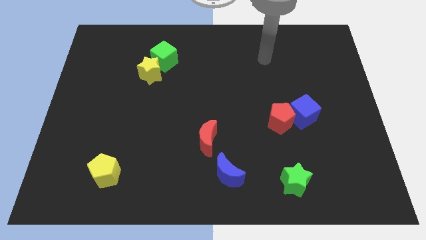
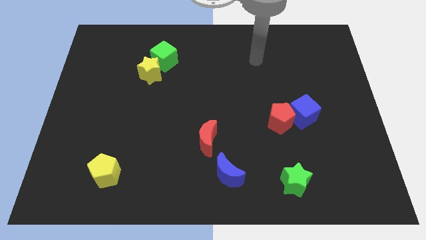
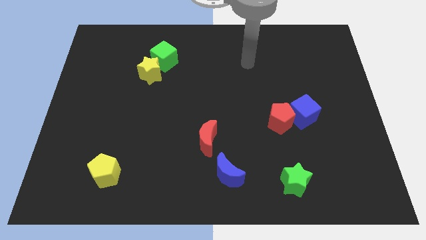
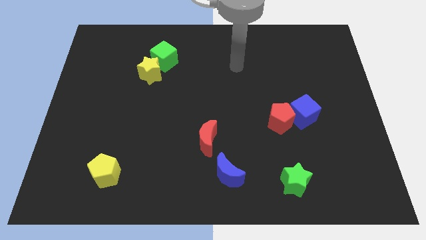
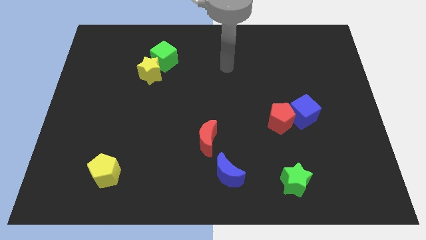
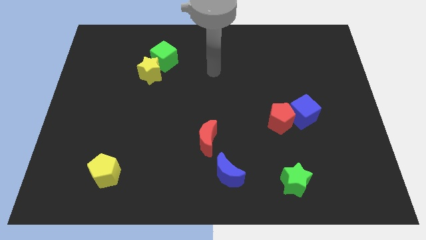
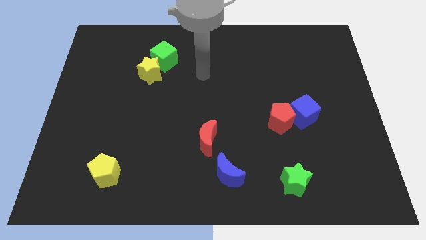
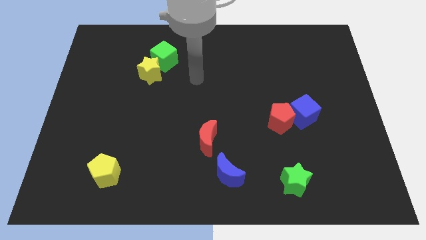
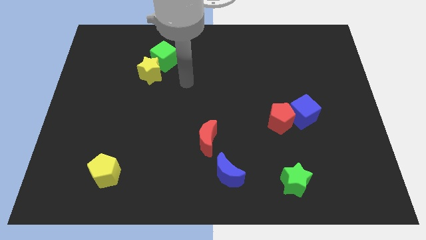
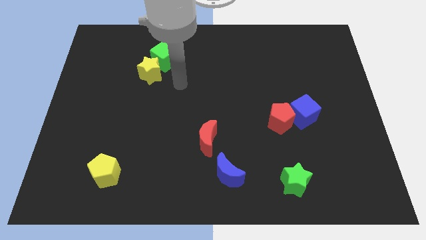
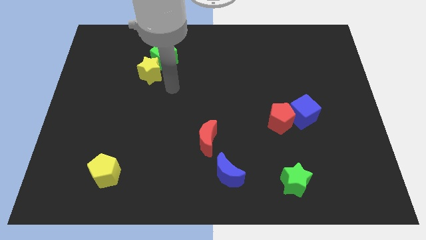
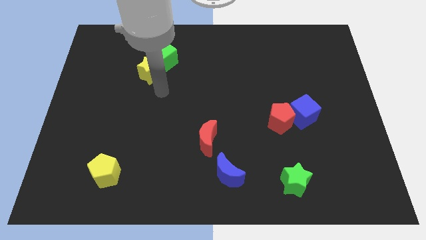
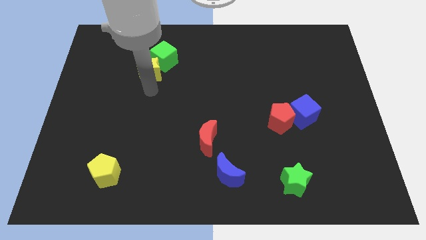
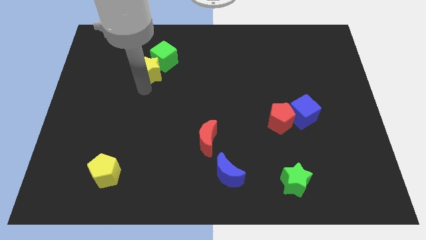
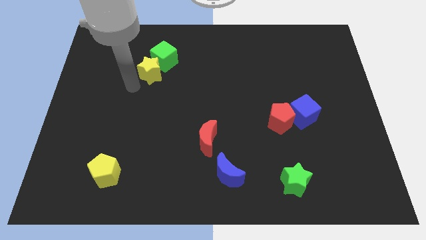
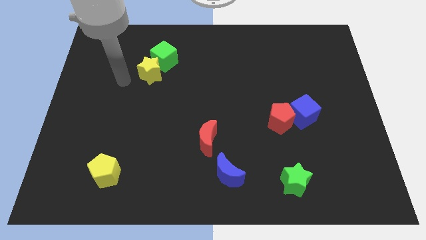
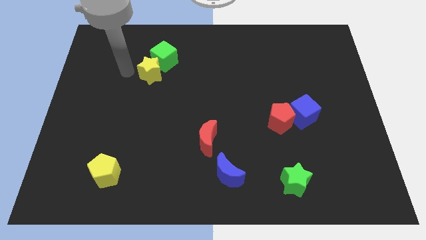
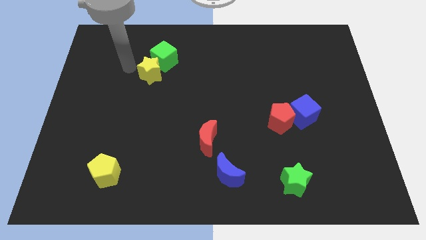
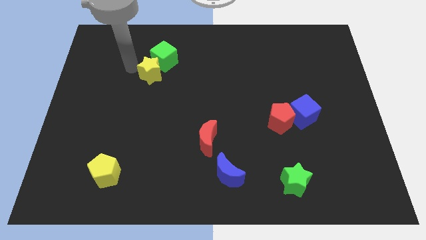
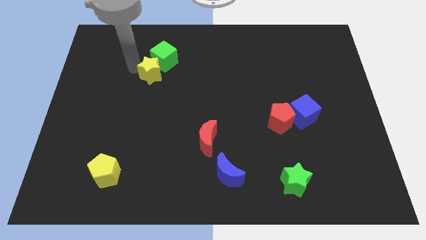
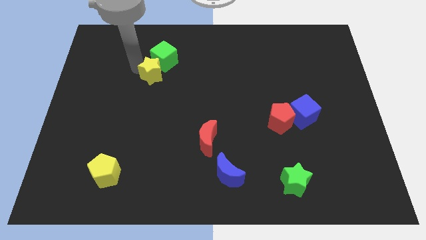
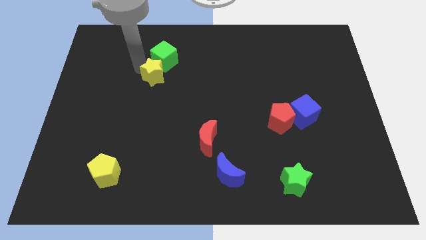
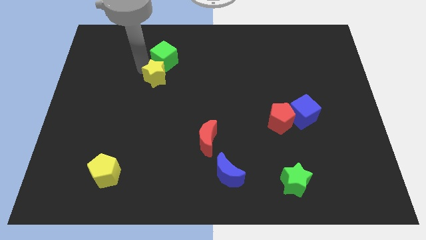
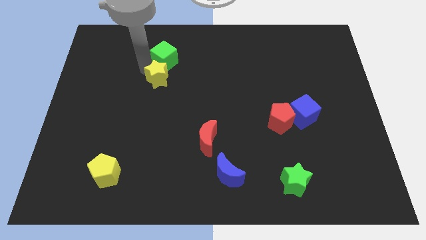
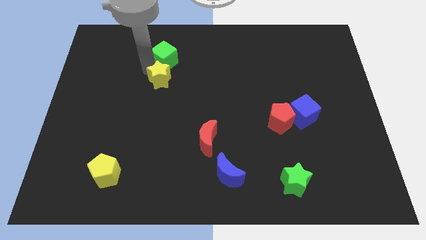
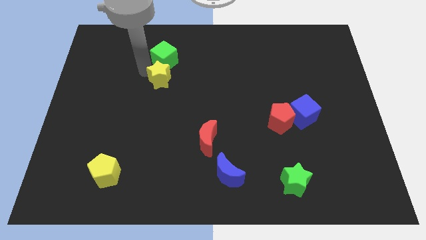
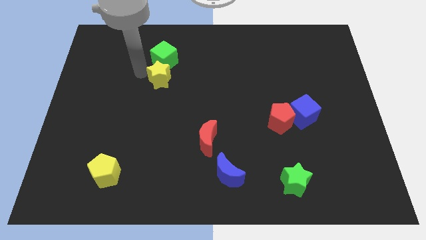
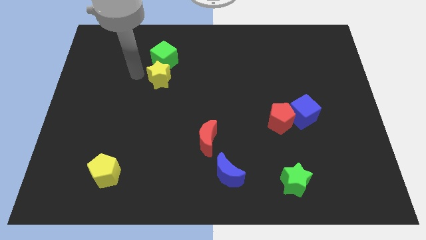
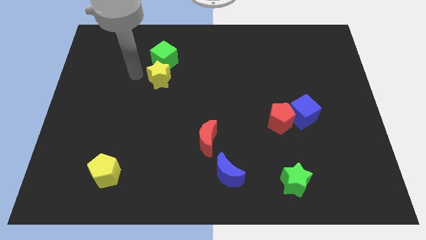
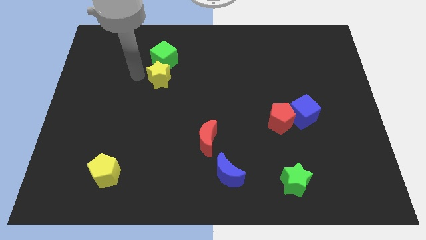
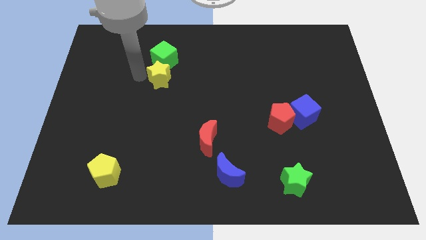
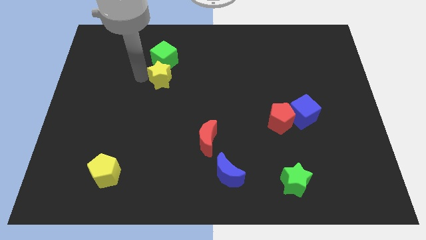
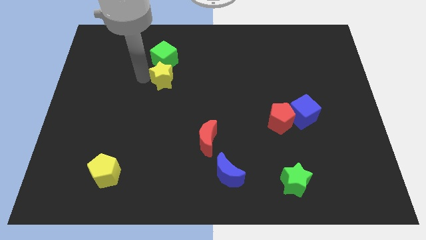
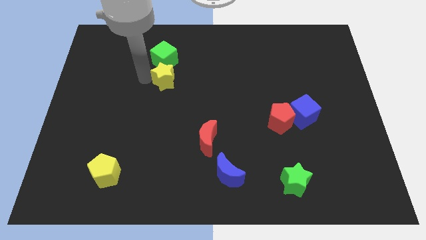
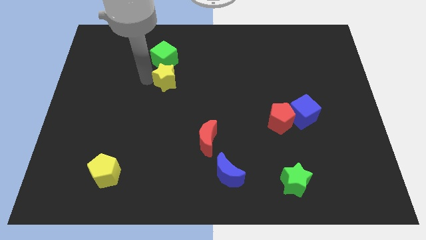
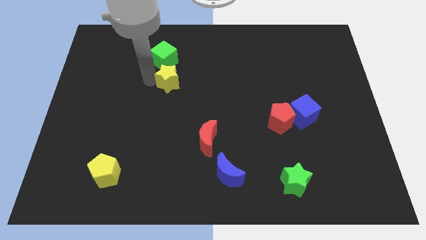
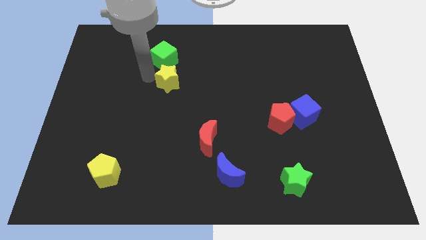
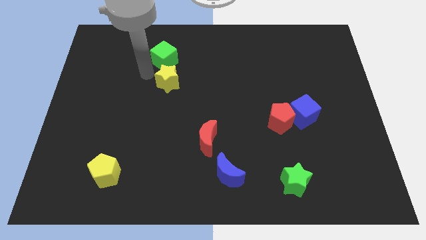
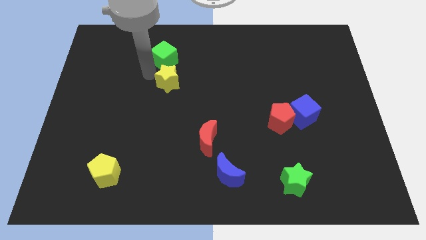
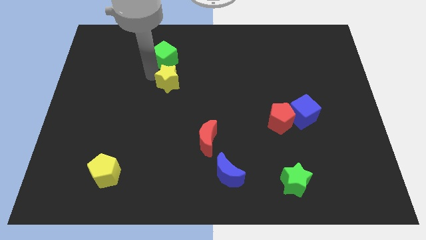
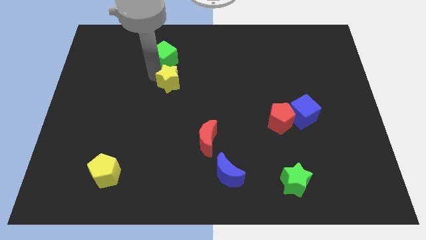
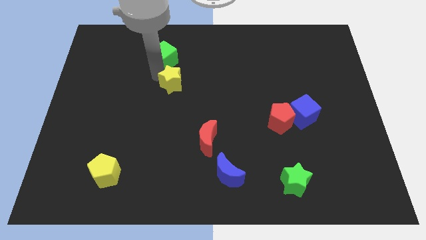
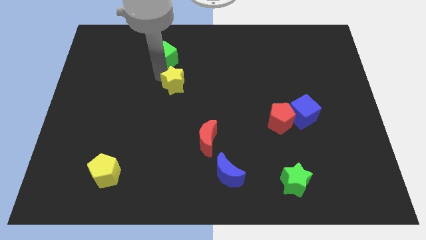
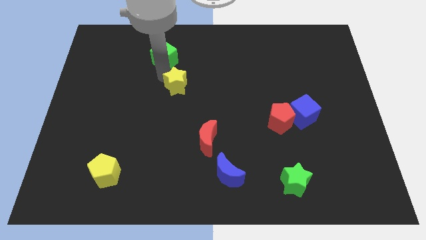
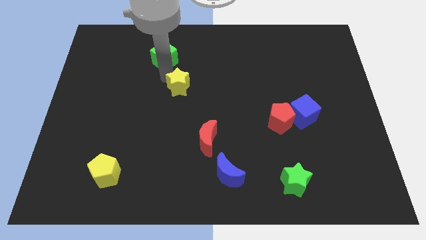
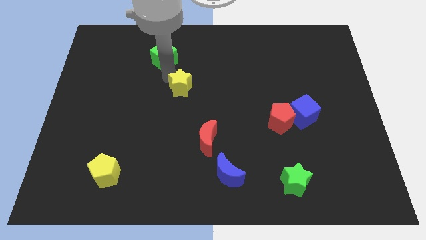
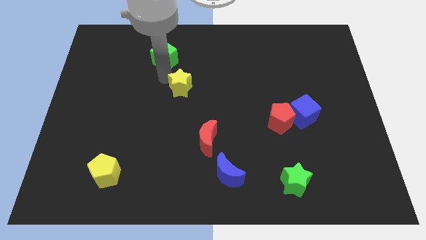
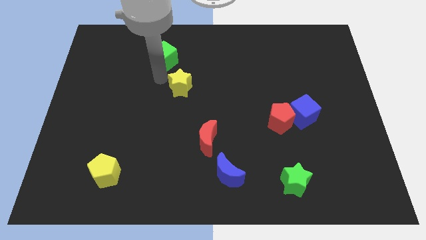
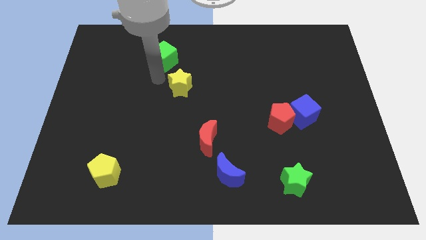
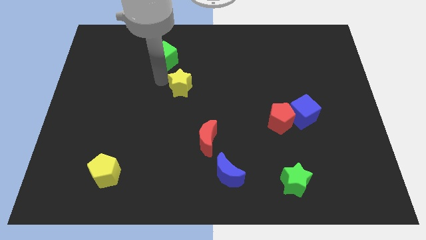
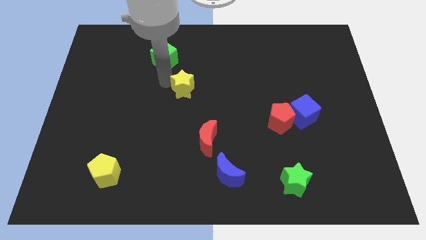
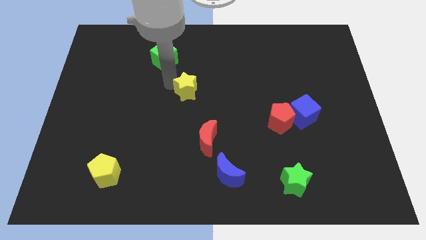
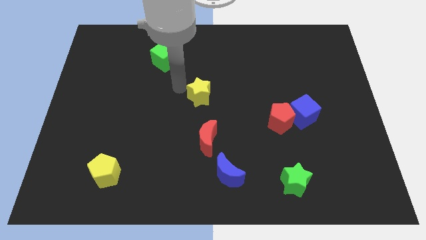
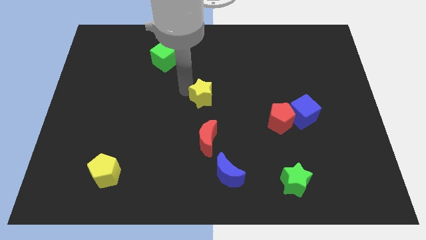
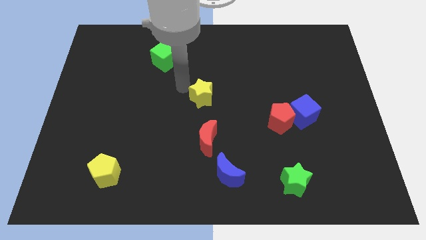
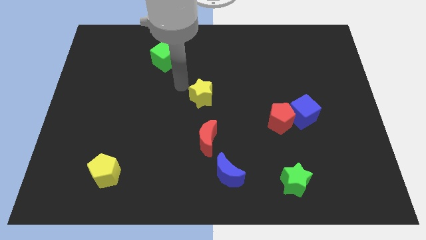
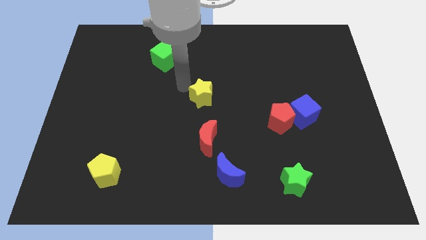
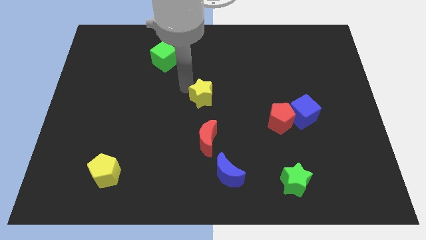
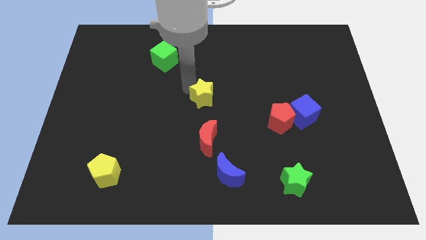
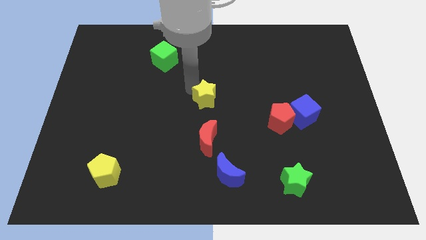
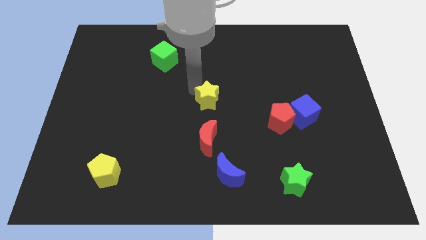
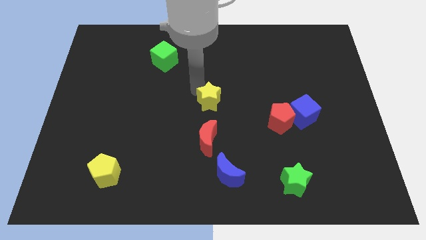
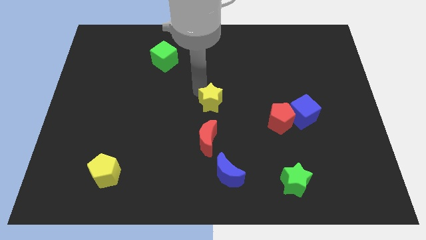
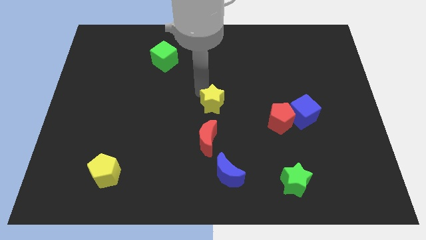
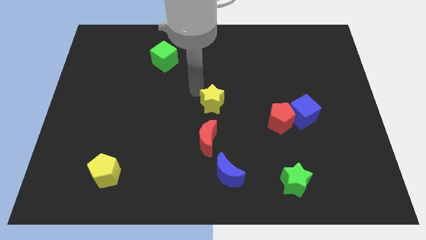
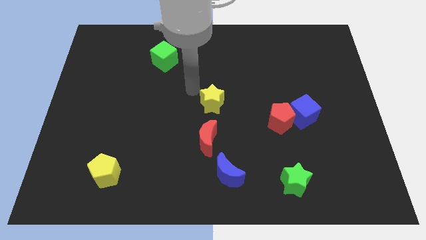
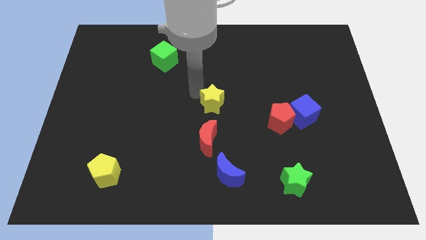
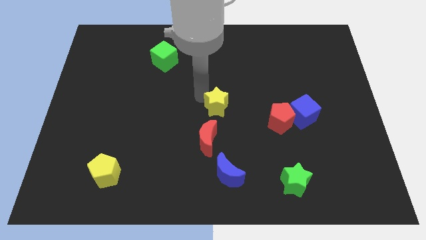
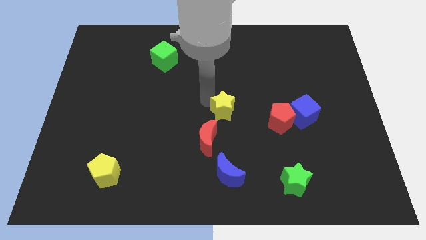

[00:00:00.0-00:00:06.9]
slide the yellow star left of the red pentagon
